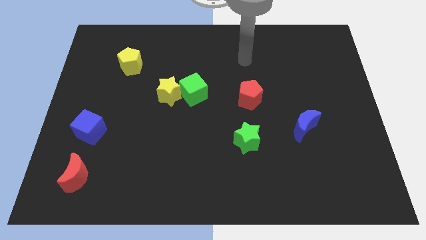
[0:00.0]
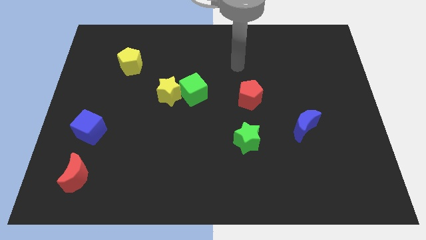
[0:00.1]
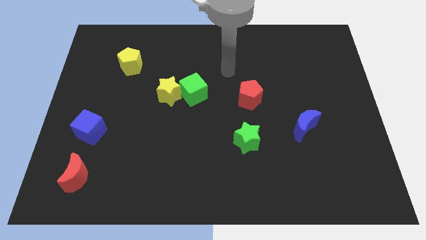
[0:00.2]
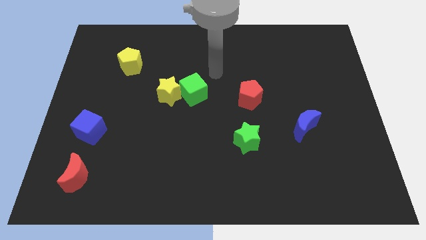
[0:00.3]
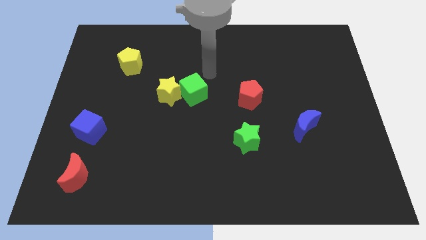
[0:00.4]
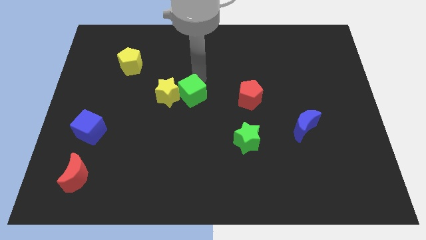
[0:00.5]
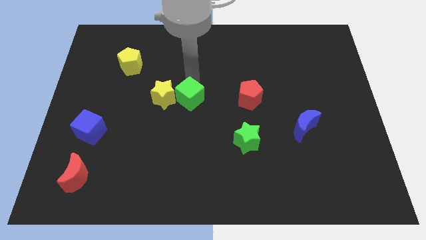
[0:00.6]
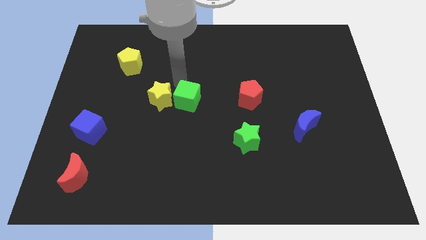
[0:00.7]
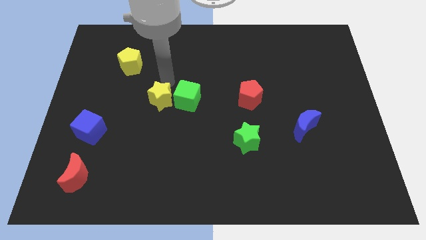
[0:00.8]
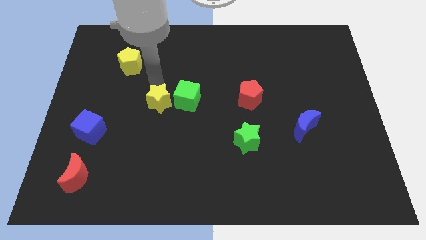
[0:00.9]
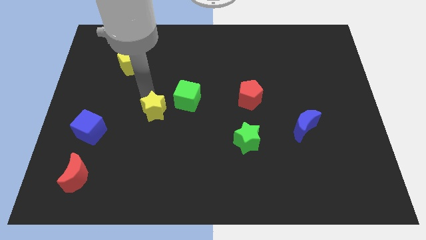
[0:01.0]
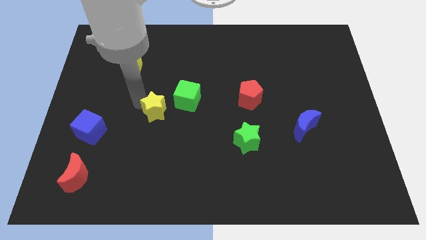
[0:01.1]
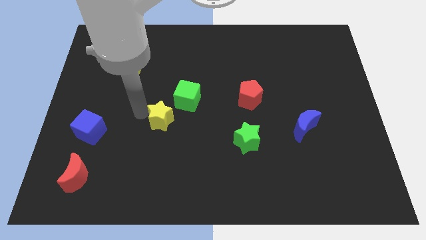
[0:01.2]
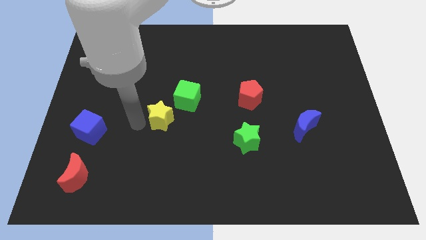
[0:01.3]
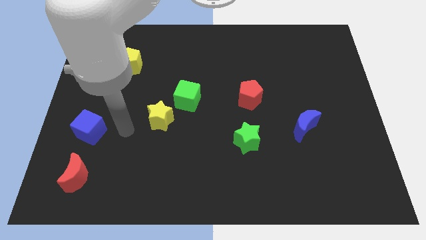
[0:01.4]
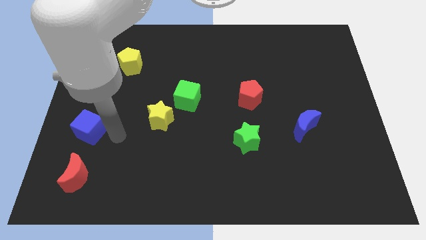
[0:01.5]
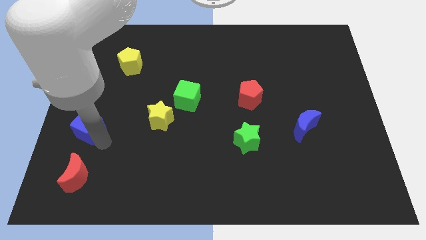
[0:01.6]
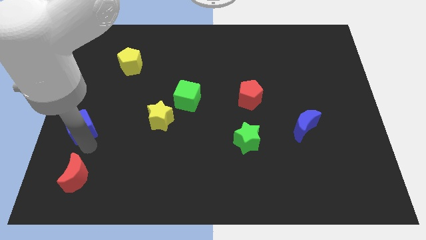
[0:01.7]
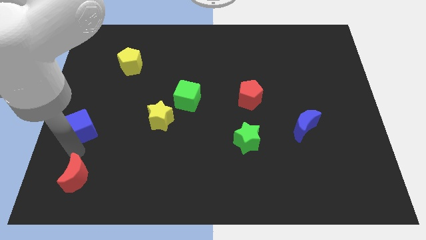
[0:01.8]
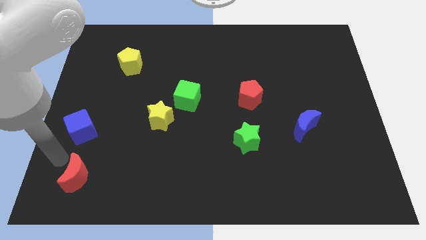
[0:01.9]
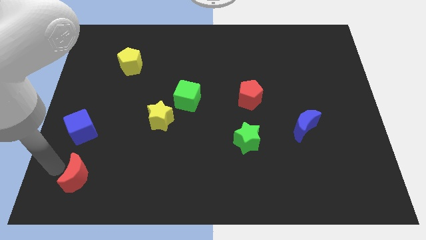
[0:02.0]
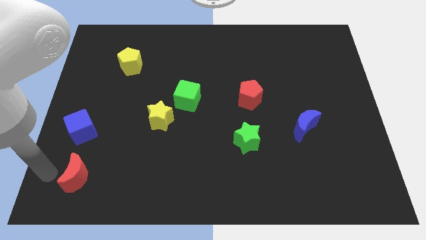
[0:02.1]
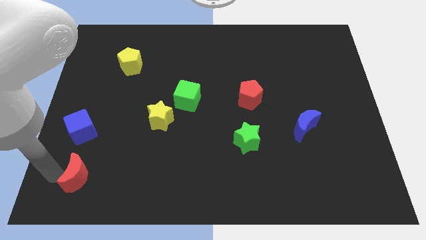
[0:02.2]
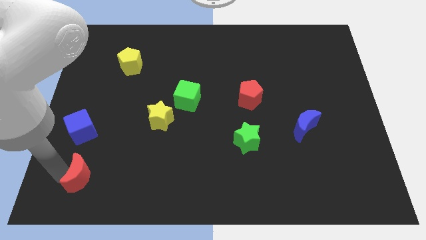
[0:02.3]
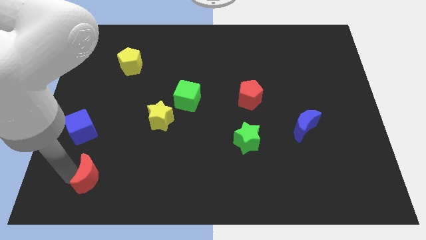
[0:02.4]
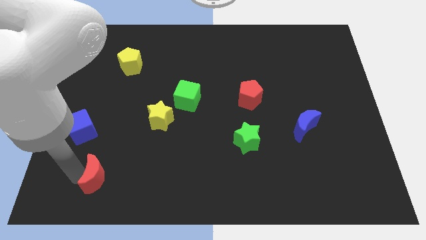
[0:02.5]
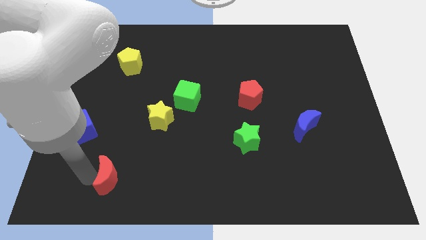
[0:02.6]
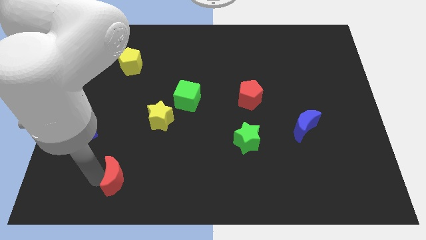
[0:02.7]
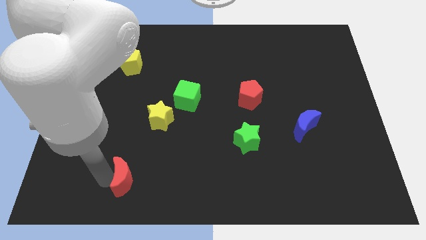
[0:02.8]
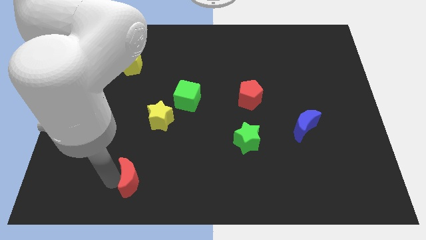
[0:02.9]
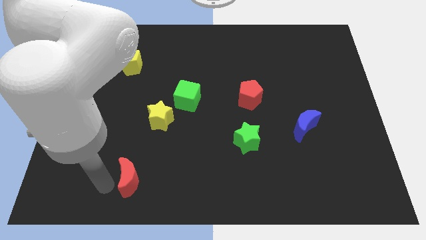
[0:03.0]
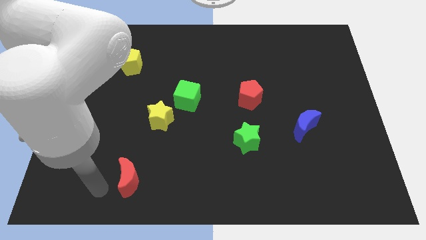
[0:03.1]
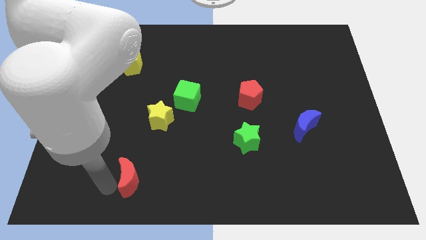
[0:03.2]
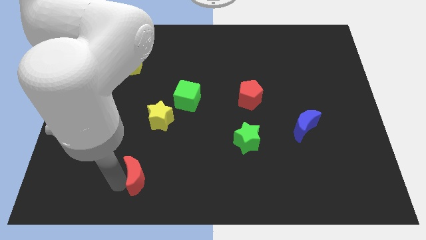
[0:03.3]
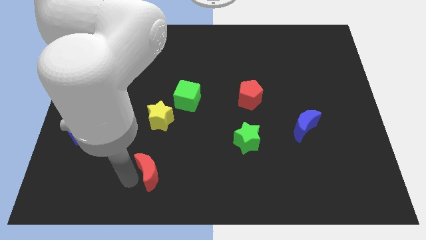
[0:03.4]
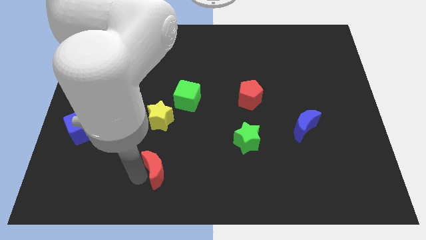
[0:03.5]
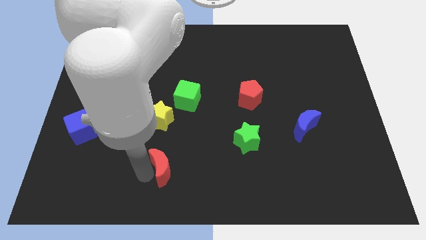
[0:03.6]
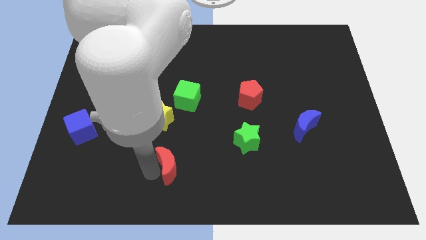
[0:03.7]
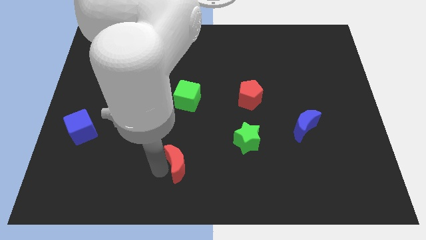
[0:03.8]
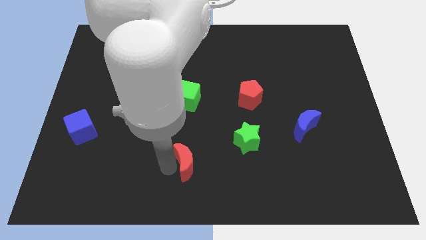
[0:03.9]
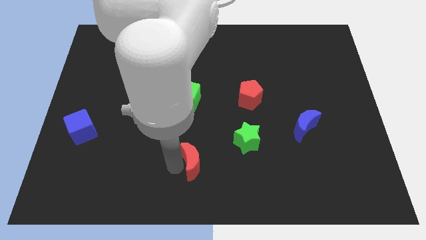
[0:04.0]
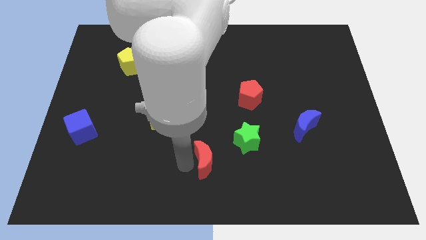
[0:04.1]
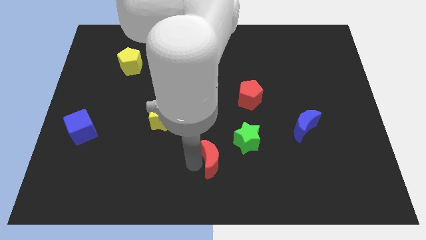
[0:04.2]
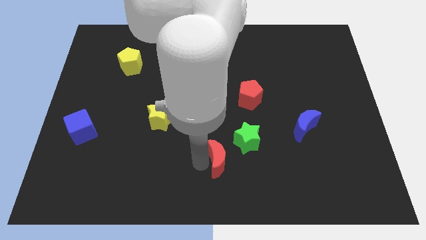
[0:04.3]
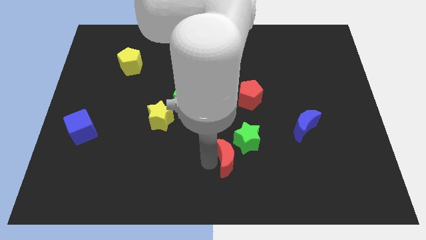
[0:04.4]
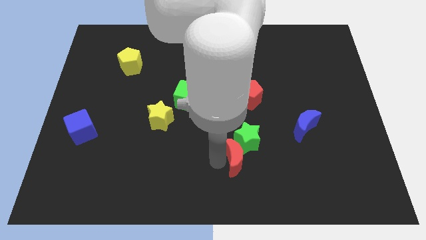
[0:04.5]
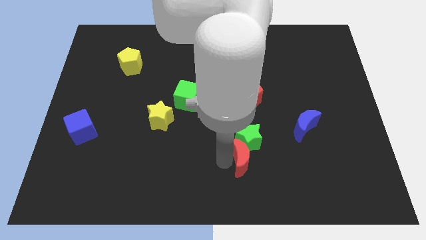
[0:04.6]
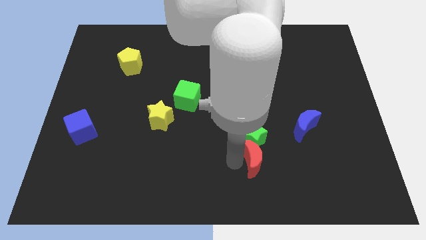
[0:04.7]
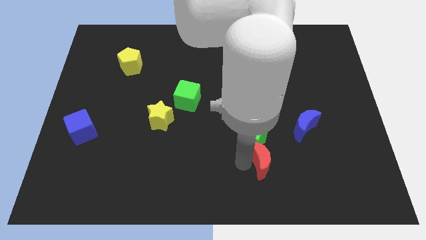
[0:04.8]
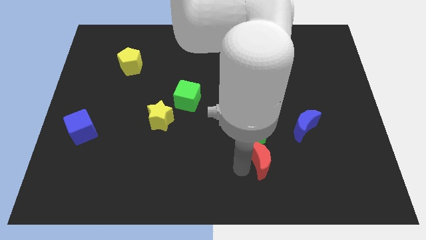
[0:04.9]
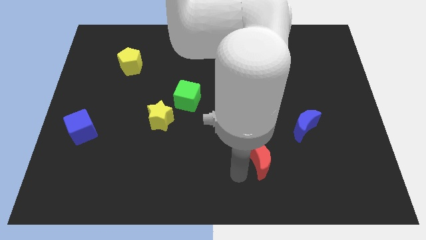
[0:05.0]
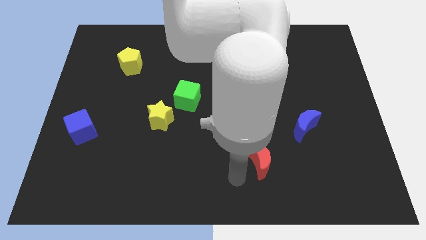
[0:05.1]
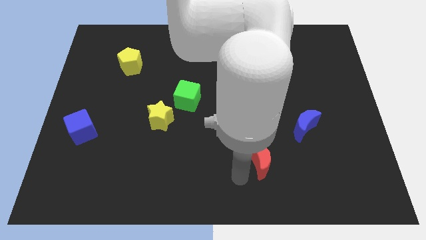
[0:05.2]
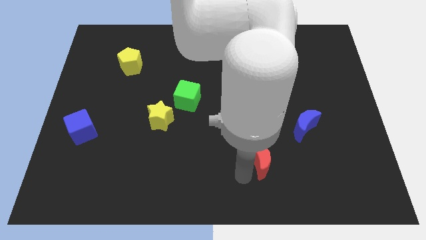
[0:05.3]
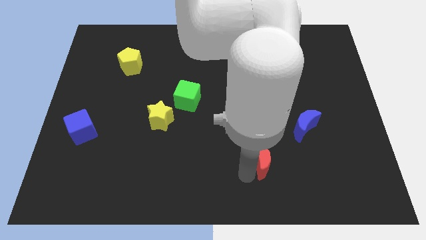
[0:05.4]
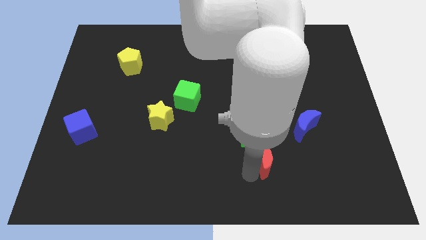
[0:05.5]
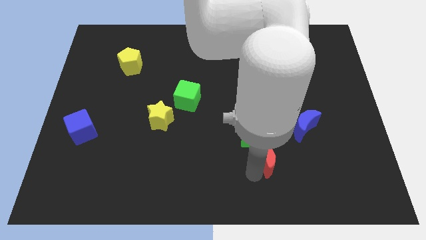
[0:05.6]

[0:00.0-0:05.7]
move the red moon diagonally down and to the left of the blue moon

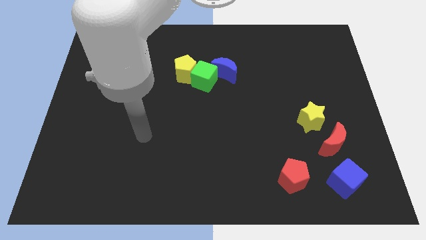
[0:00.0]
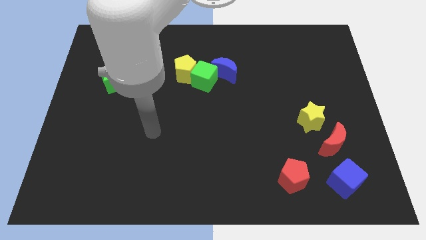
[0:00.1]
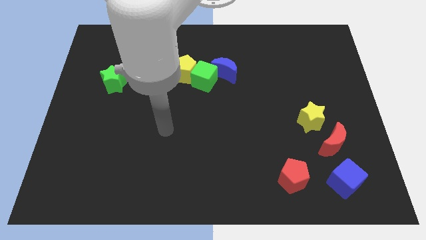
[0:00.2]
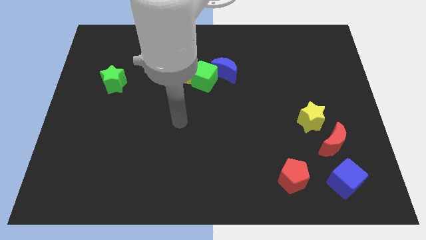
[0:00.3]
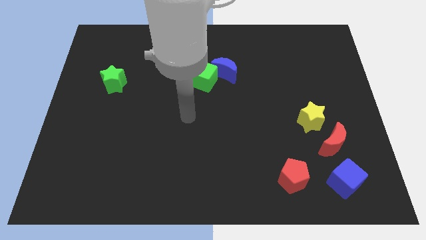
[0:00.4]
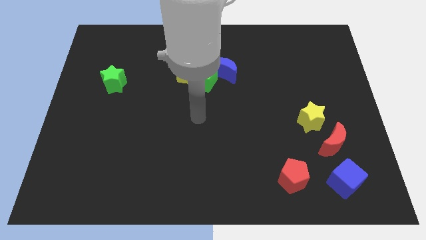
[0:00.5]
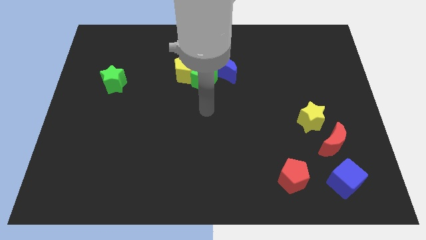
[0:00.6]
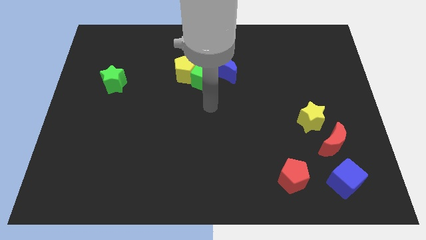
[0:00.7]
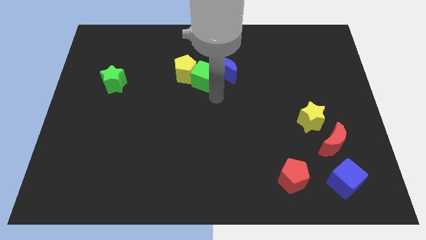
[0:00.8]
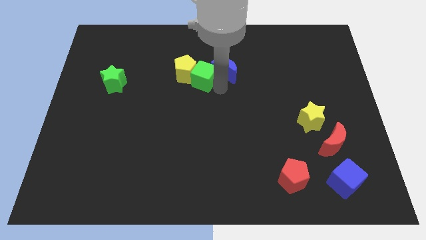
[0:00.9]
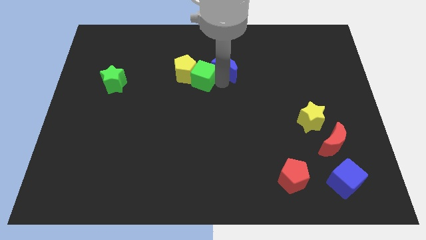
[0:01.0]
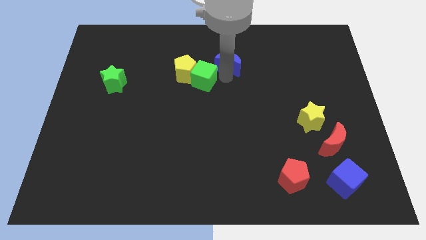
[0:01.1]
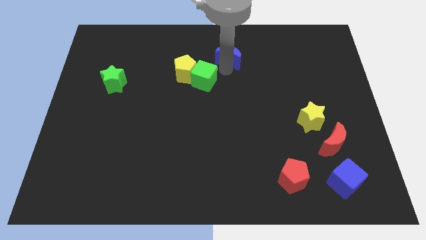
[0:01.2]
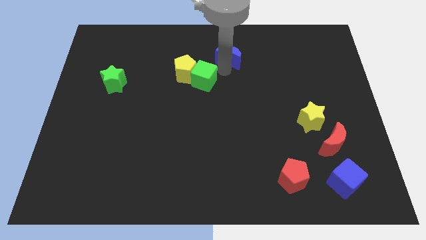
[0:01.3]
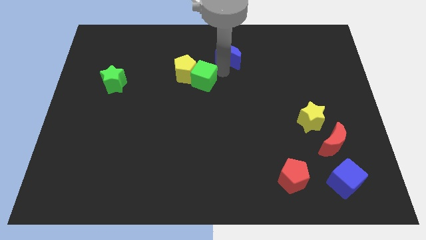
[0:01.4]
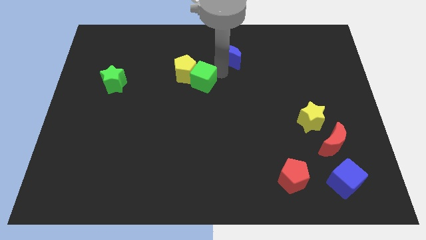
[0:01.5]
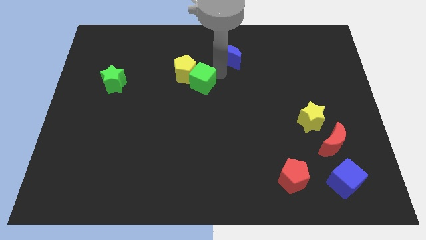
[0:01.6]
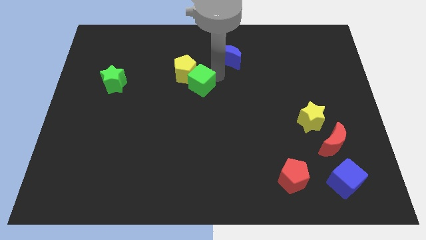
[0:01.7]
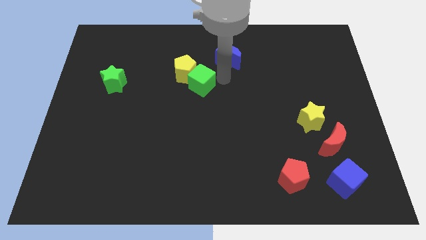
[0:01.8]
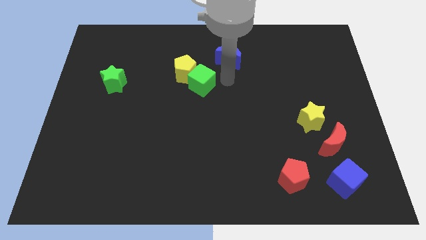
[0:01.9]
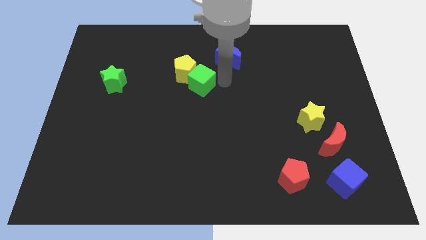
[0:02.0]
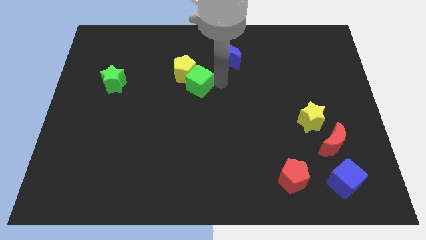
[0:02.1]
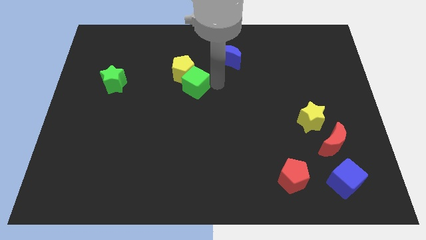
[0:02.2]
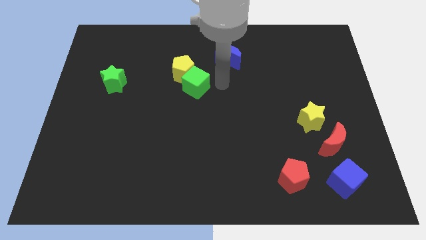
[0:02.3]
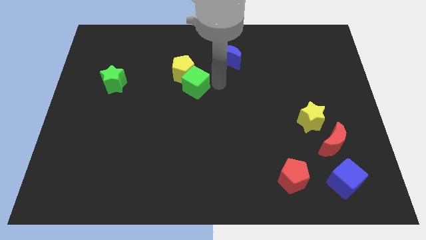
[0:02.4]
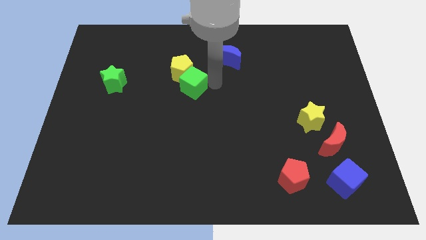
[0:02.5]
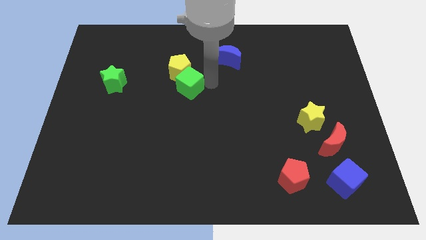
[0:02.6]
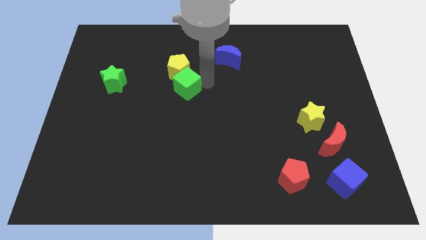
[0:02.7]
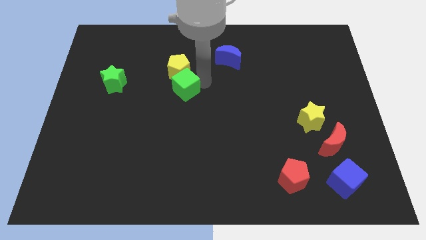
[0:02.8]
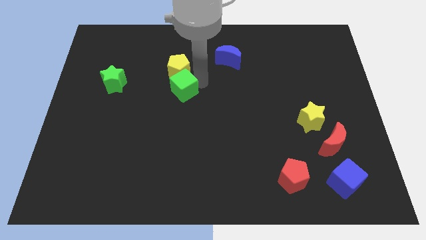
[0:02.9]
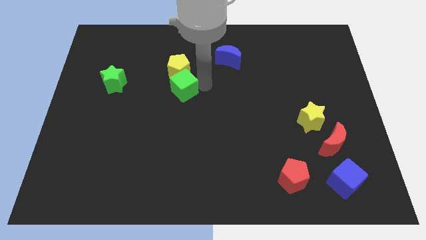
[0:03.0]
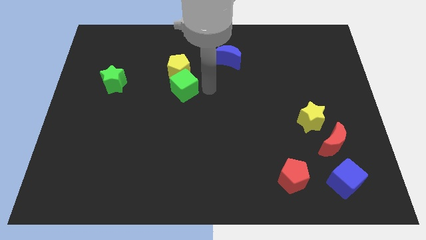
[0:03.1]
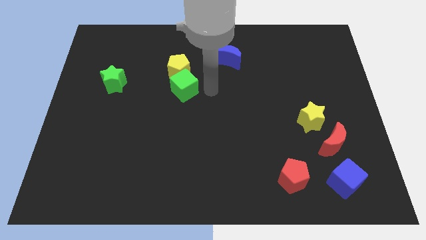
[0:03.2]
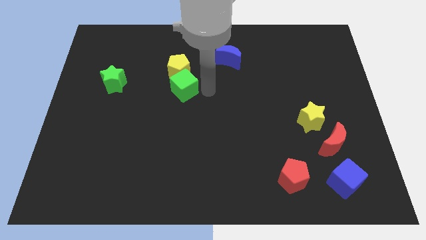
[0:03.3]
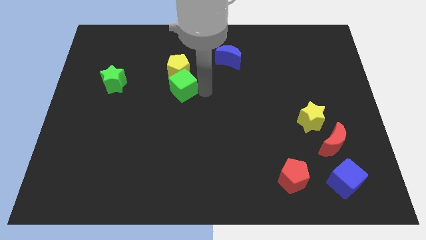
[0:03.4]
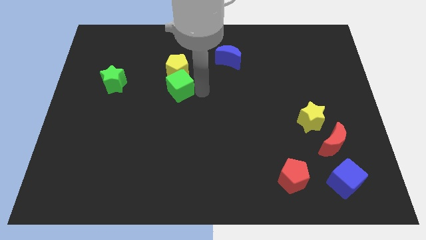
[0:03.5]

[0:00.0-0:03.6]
move the green cube diagonally down and to the left of the yellow pentagon
